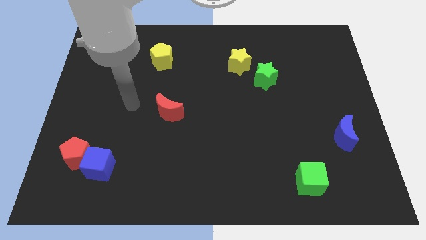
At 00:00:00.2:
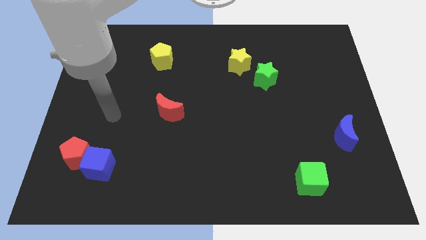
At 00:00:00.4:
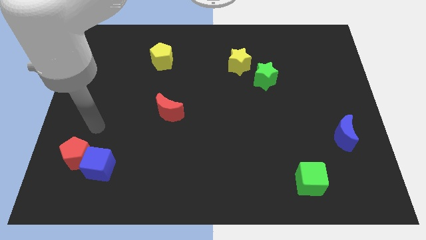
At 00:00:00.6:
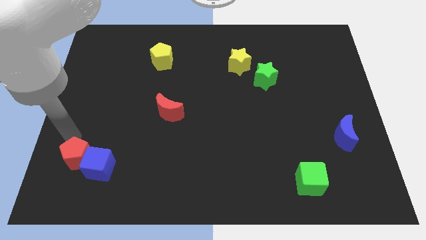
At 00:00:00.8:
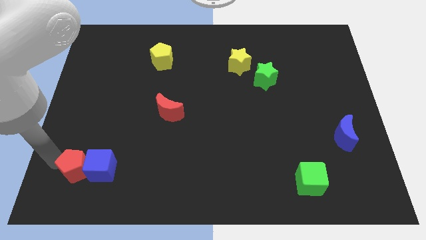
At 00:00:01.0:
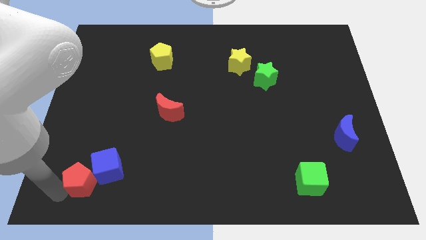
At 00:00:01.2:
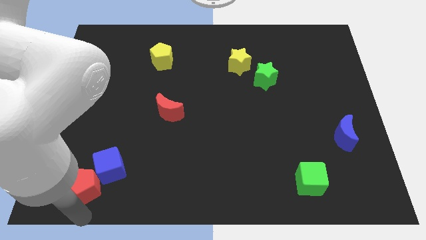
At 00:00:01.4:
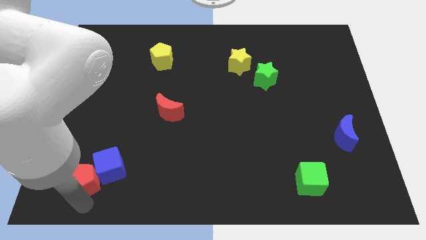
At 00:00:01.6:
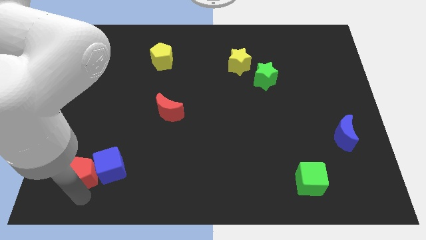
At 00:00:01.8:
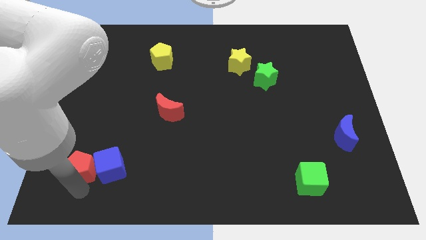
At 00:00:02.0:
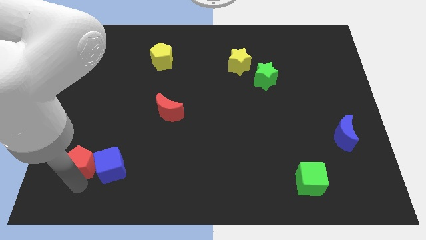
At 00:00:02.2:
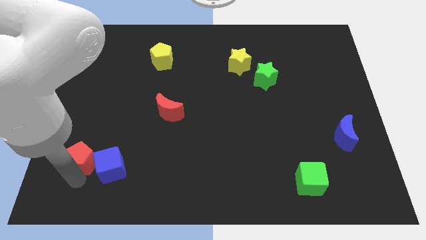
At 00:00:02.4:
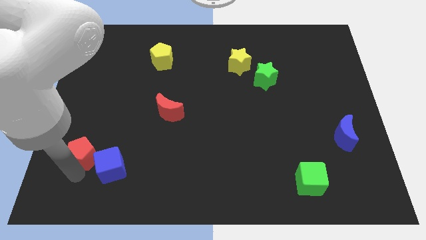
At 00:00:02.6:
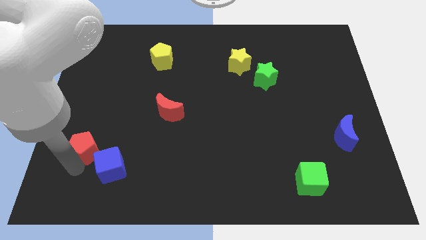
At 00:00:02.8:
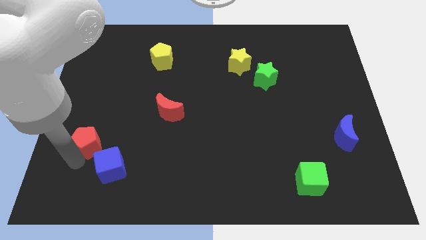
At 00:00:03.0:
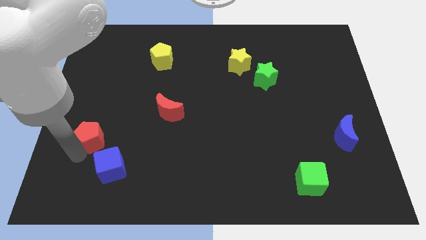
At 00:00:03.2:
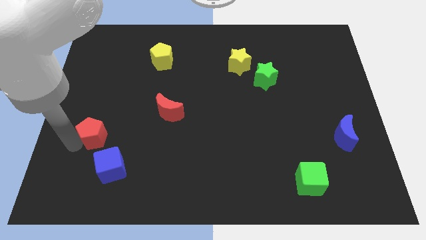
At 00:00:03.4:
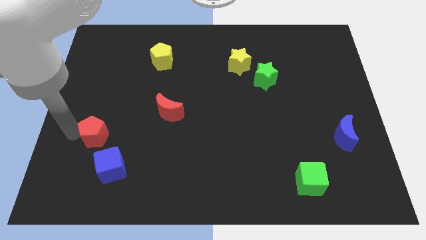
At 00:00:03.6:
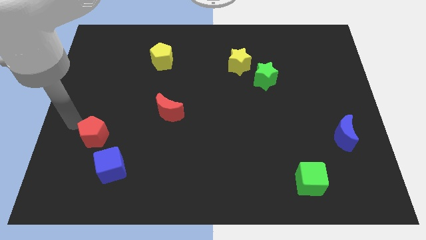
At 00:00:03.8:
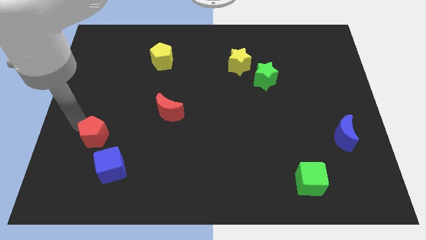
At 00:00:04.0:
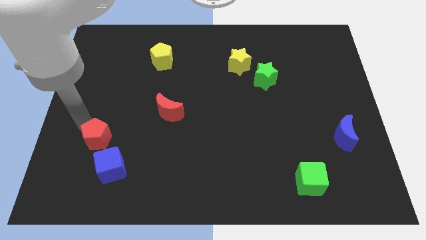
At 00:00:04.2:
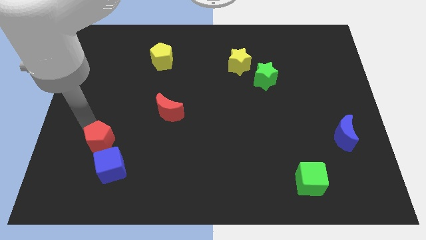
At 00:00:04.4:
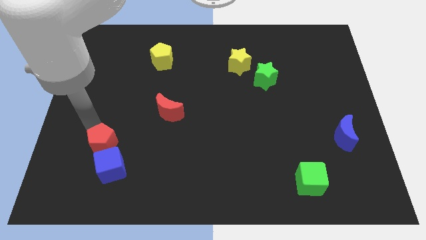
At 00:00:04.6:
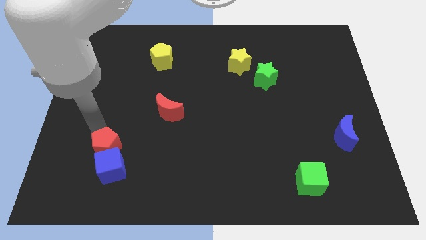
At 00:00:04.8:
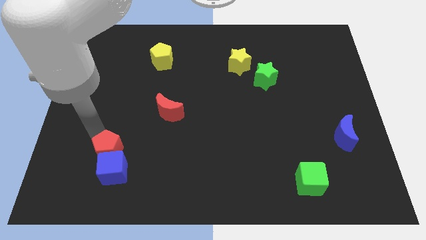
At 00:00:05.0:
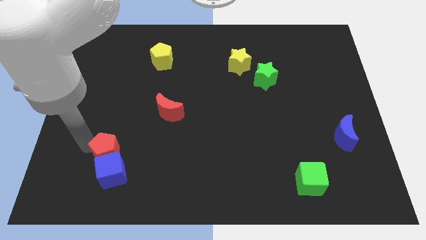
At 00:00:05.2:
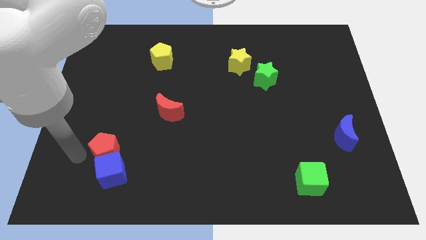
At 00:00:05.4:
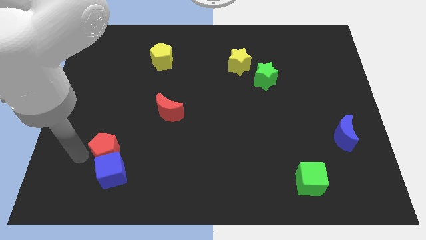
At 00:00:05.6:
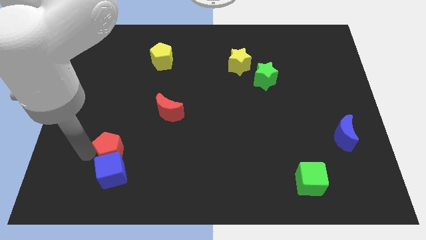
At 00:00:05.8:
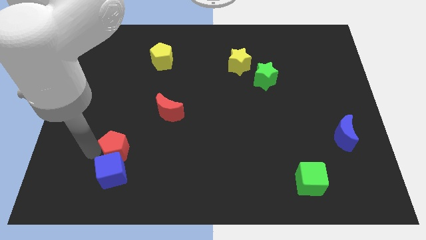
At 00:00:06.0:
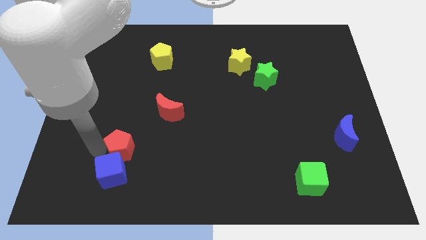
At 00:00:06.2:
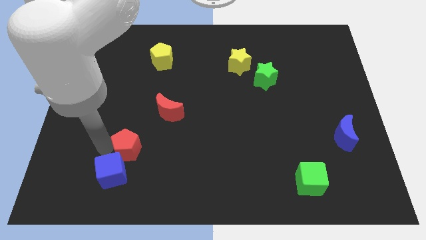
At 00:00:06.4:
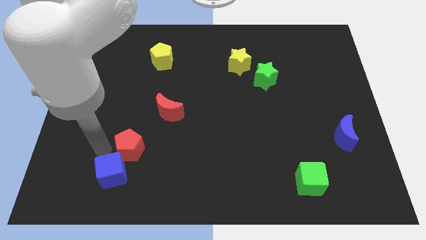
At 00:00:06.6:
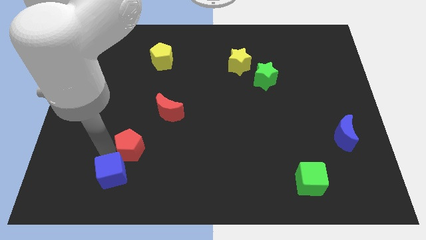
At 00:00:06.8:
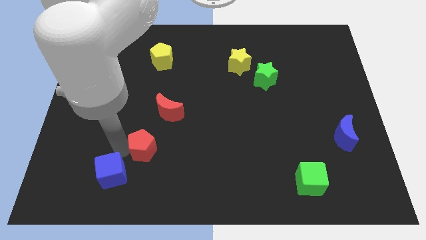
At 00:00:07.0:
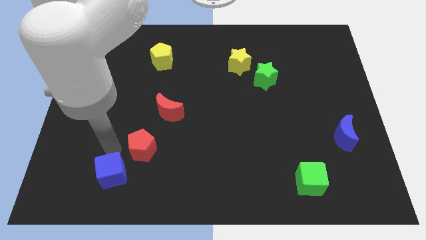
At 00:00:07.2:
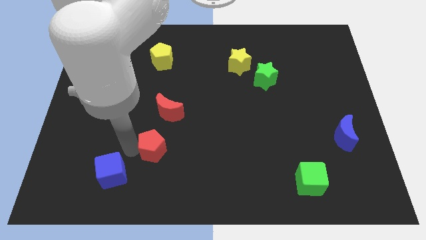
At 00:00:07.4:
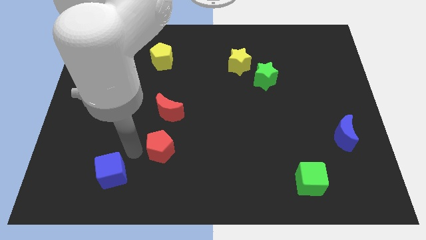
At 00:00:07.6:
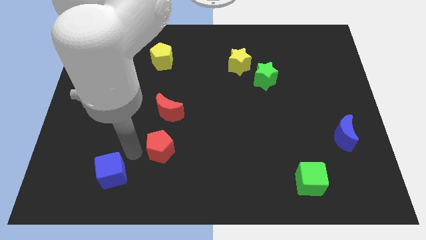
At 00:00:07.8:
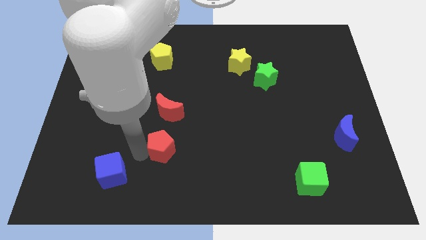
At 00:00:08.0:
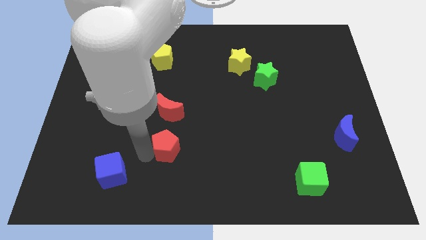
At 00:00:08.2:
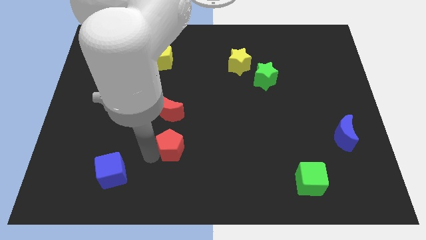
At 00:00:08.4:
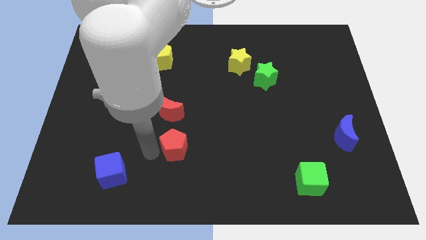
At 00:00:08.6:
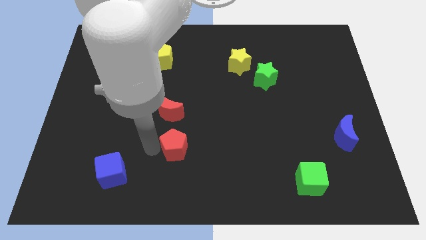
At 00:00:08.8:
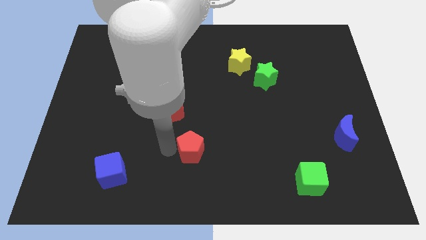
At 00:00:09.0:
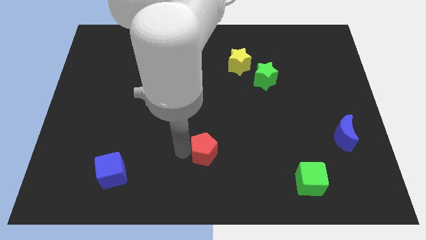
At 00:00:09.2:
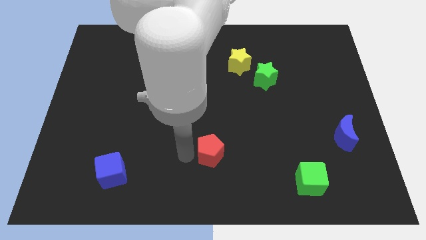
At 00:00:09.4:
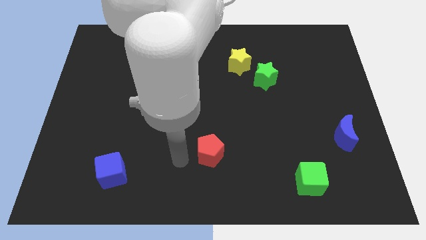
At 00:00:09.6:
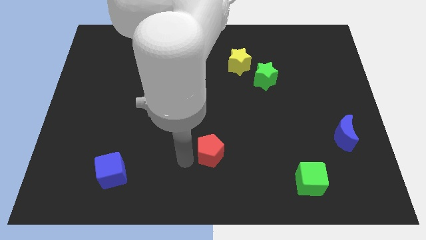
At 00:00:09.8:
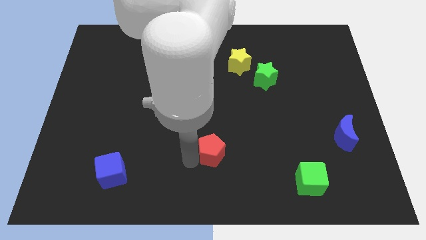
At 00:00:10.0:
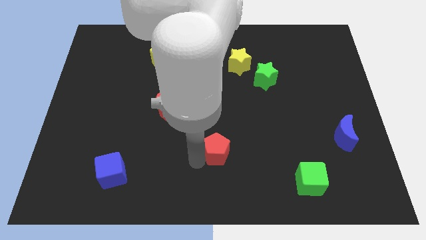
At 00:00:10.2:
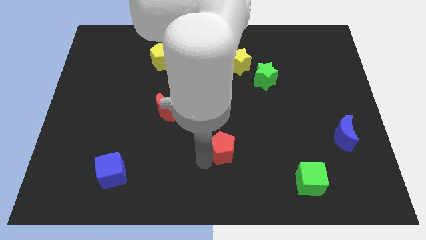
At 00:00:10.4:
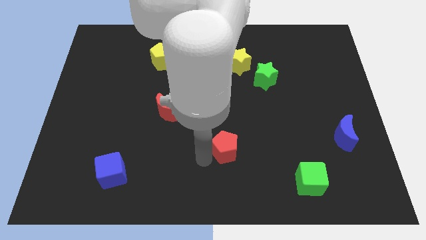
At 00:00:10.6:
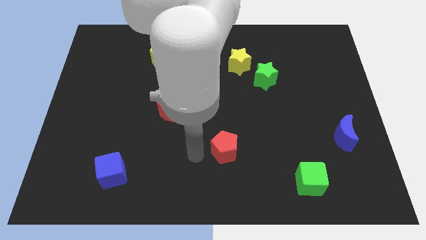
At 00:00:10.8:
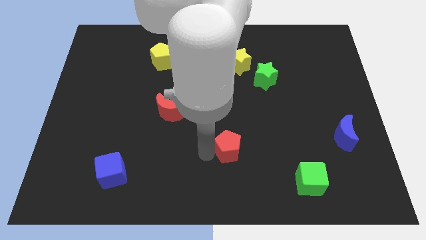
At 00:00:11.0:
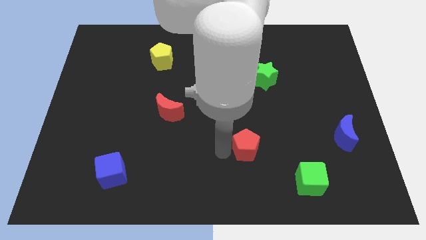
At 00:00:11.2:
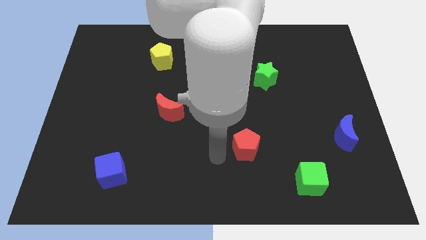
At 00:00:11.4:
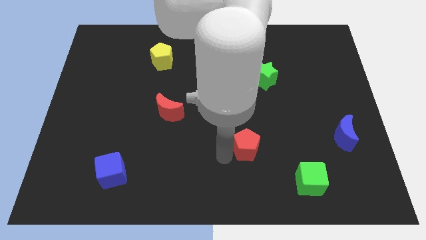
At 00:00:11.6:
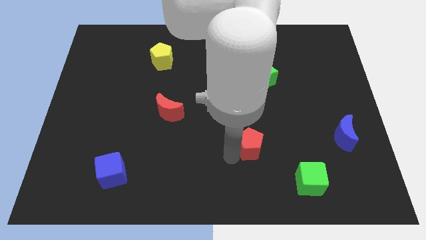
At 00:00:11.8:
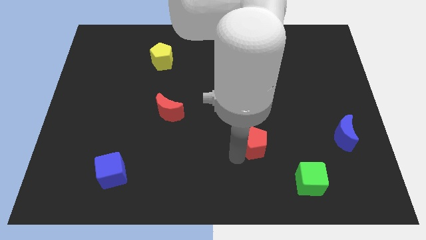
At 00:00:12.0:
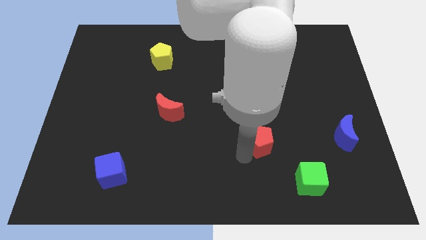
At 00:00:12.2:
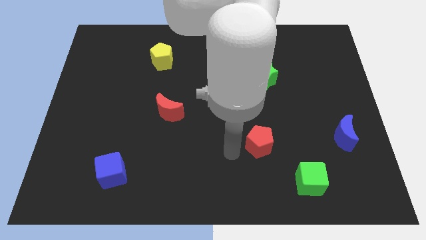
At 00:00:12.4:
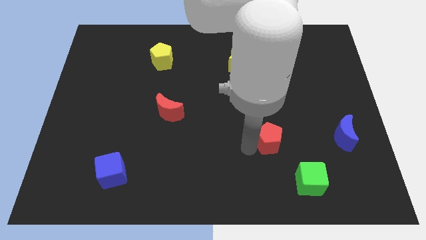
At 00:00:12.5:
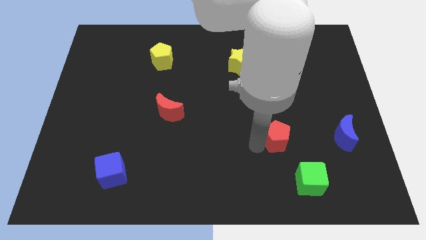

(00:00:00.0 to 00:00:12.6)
put the red pentagon just left of the blue moon

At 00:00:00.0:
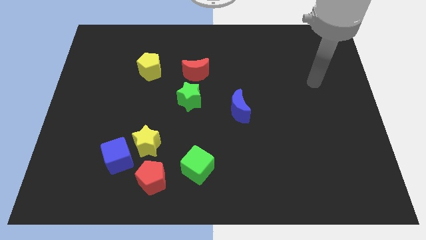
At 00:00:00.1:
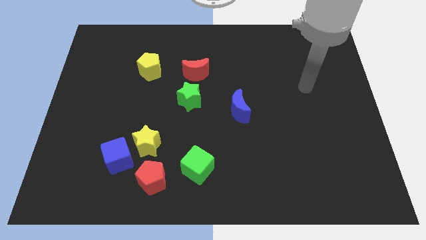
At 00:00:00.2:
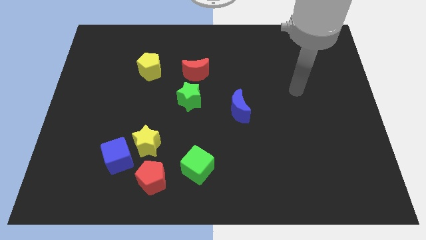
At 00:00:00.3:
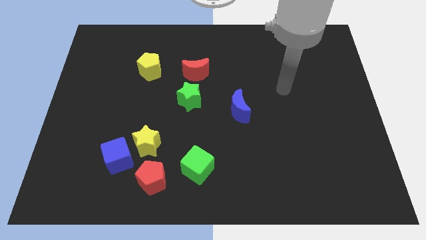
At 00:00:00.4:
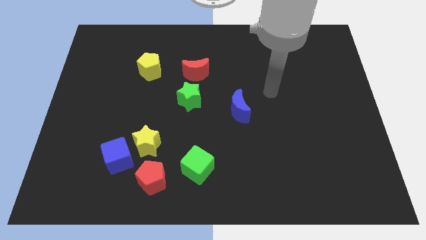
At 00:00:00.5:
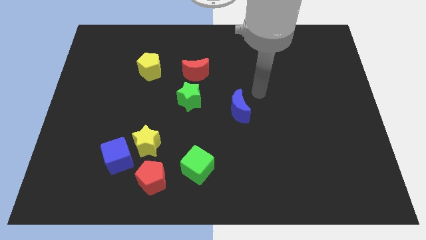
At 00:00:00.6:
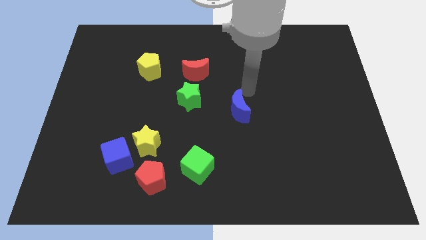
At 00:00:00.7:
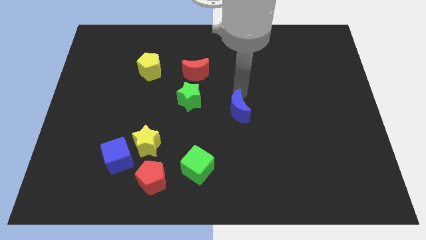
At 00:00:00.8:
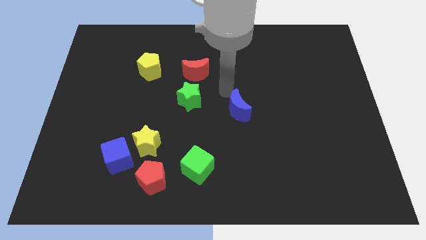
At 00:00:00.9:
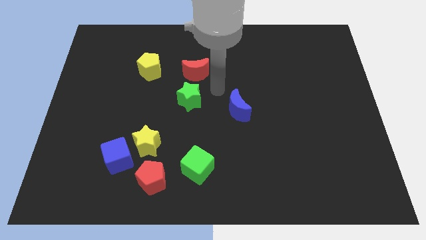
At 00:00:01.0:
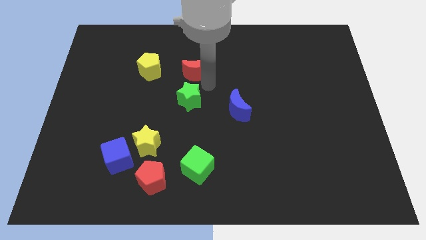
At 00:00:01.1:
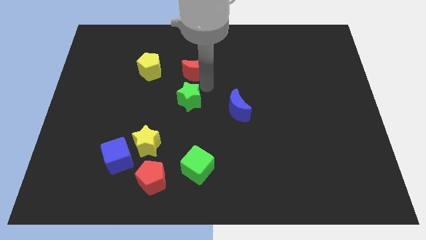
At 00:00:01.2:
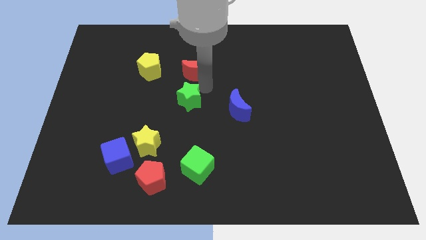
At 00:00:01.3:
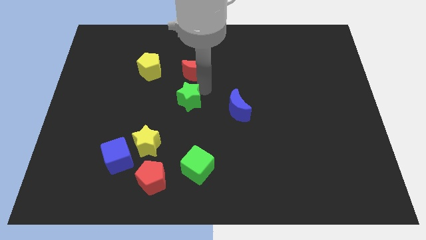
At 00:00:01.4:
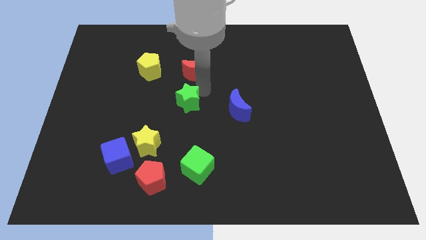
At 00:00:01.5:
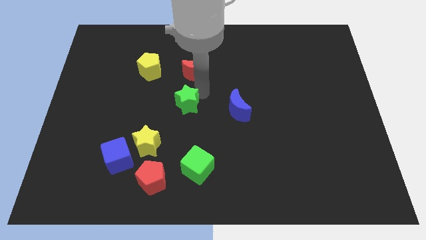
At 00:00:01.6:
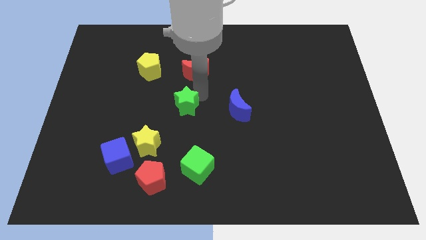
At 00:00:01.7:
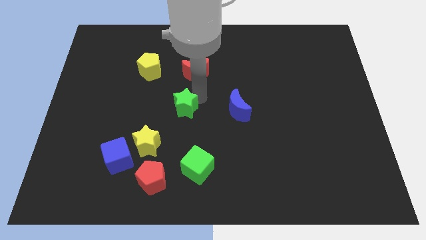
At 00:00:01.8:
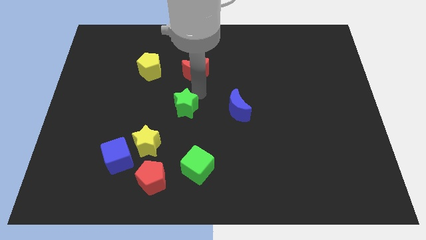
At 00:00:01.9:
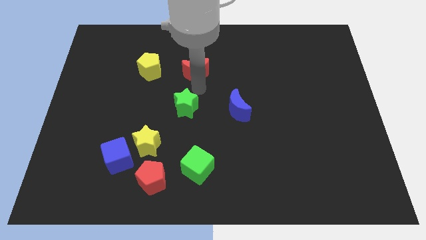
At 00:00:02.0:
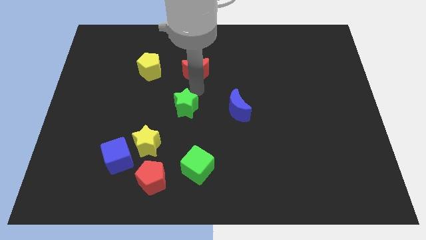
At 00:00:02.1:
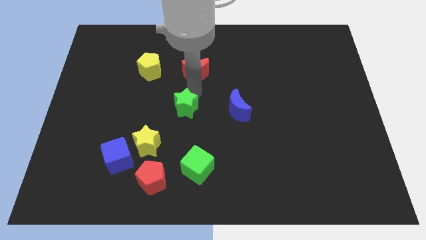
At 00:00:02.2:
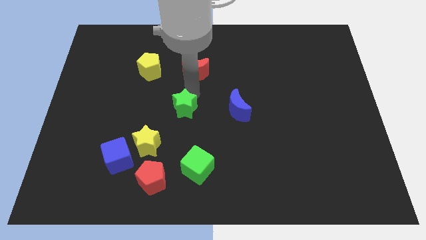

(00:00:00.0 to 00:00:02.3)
put the green star to the top right of the yellow star
